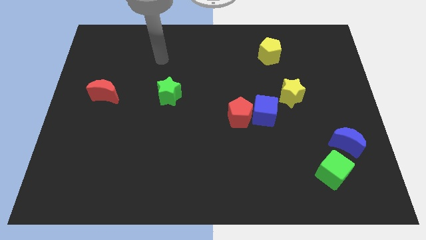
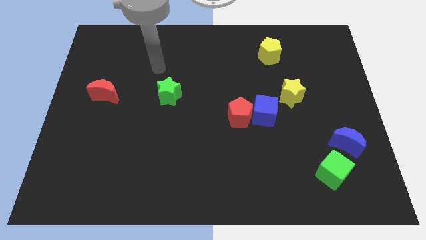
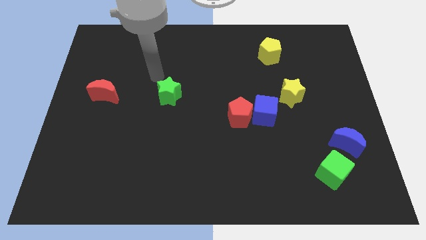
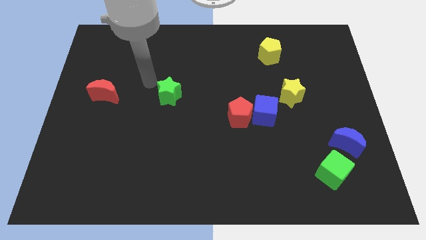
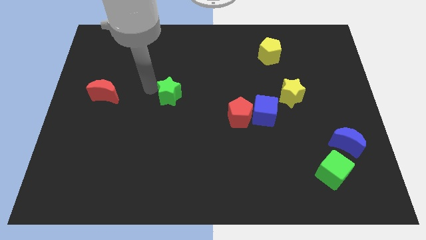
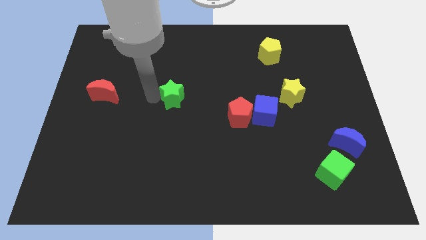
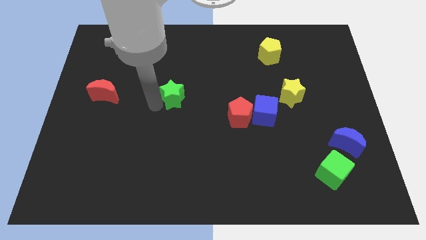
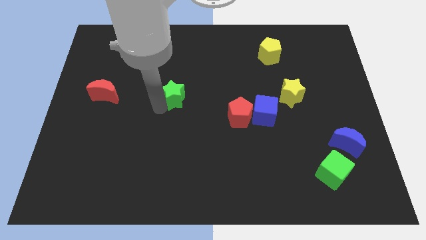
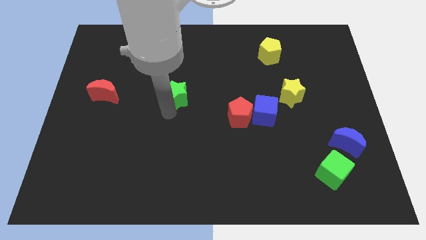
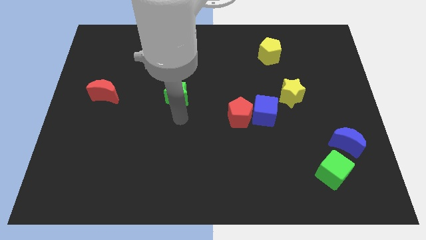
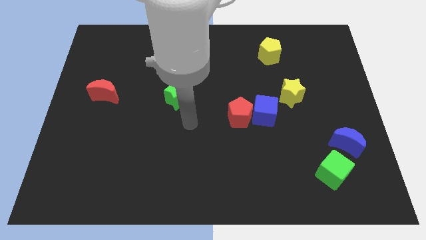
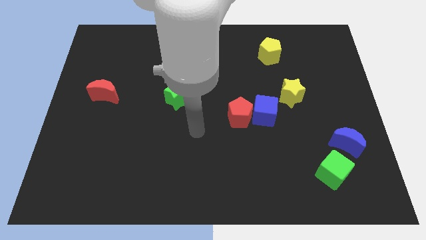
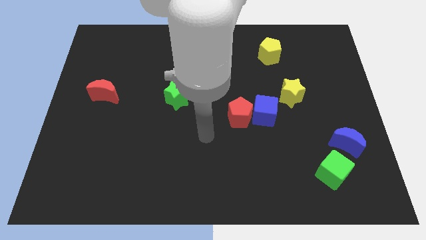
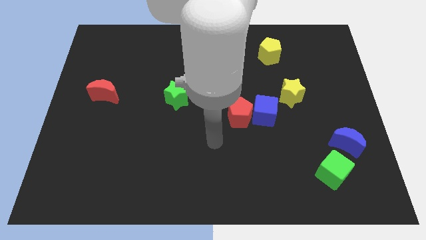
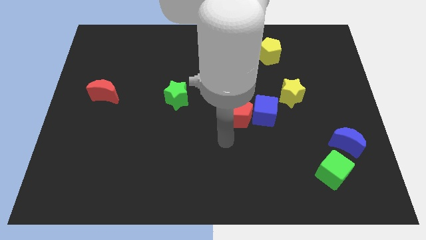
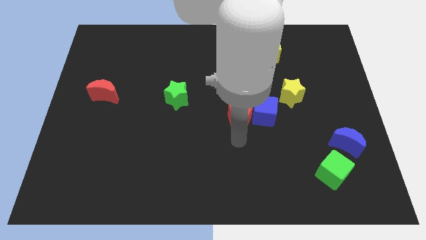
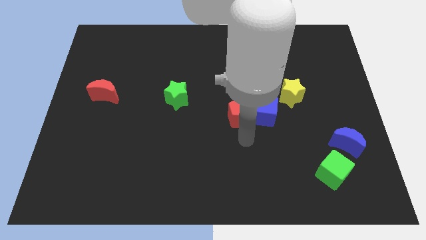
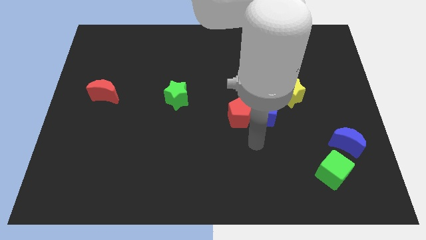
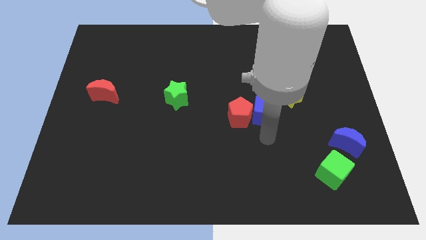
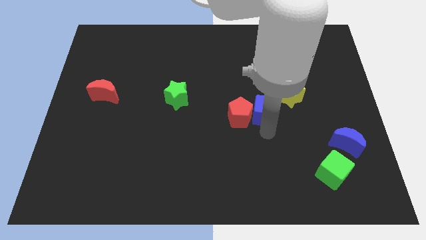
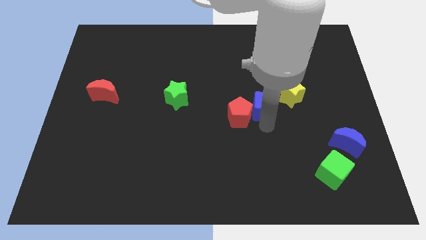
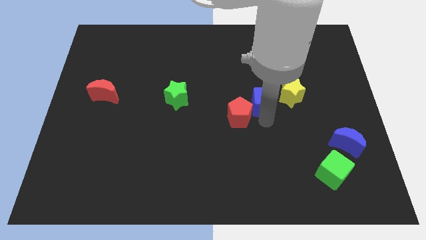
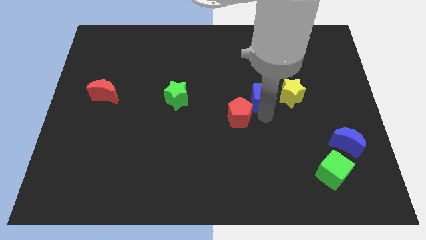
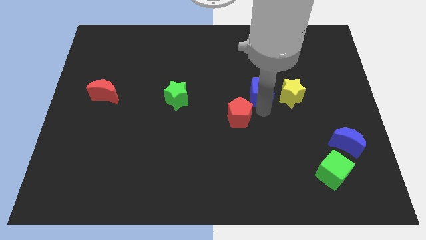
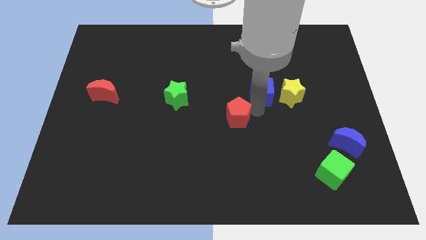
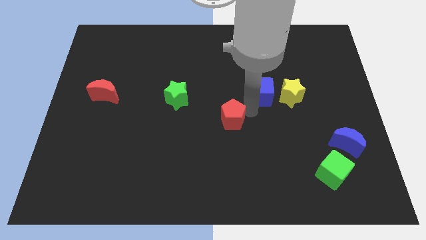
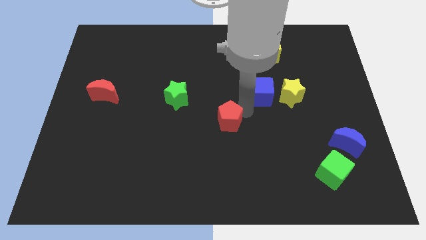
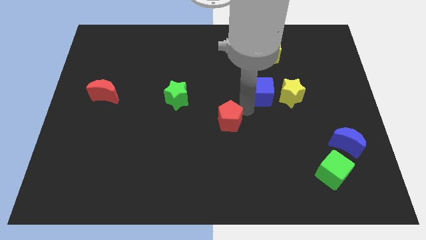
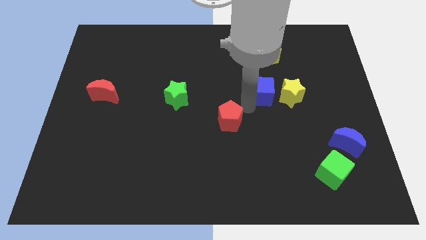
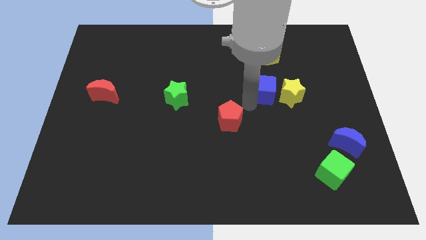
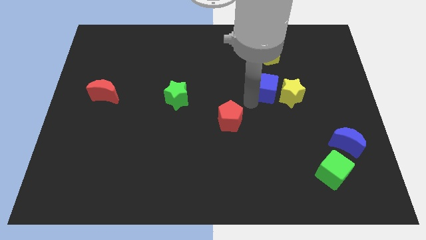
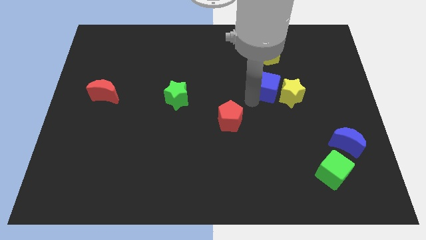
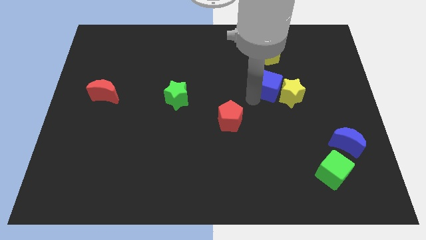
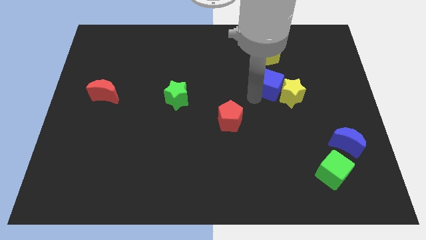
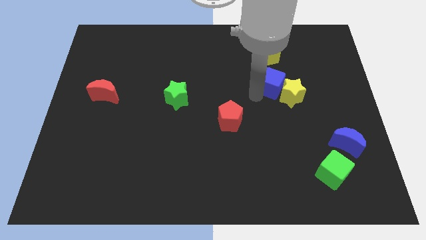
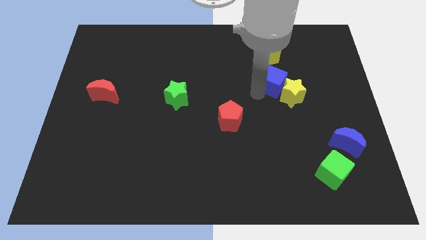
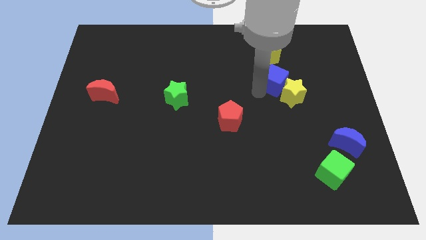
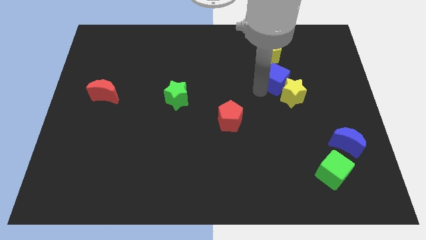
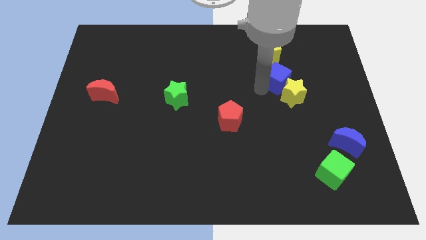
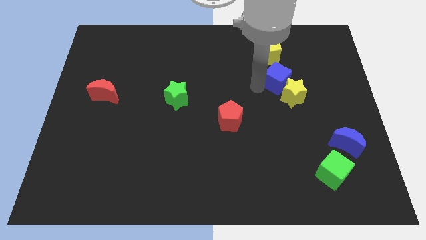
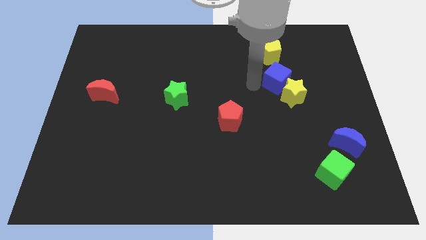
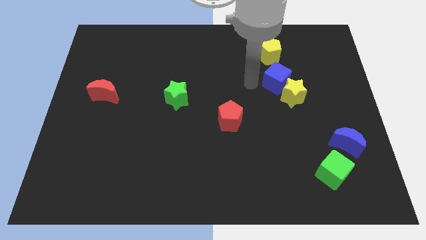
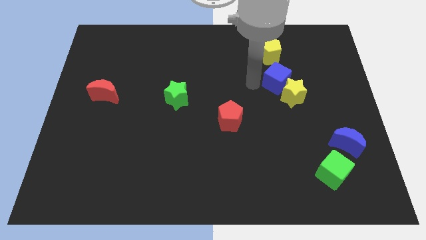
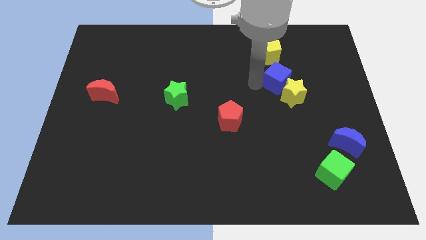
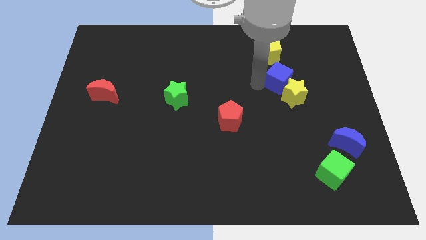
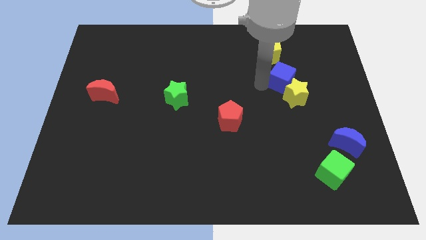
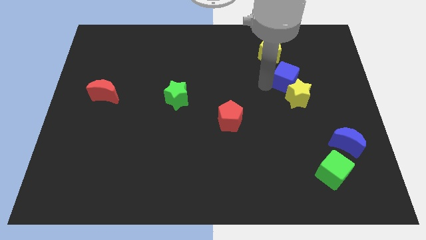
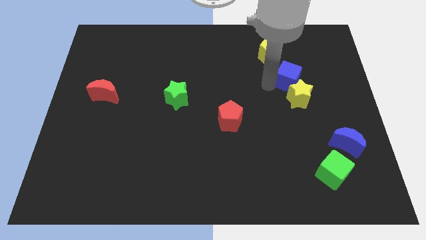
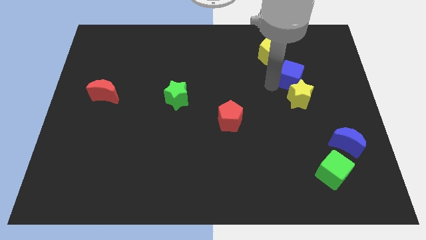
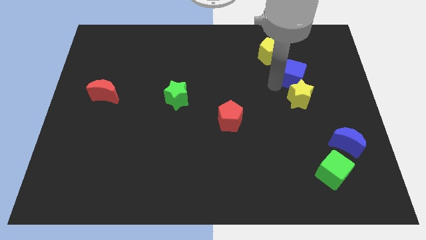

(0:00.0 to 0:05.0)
slide the blue cube to the top right side of the yellow star

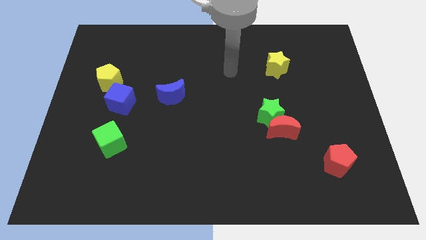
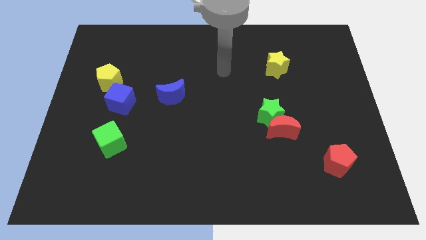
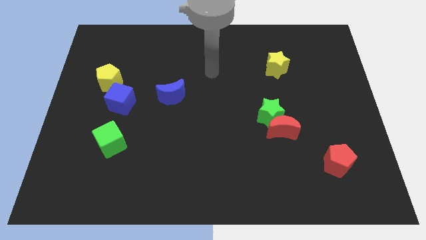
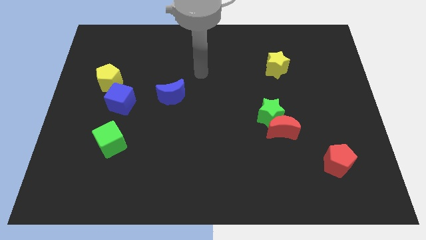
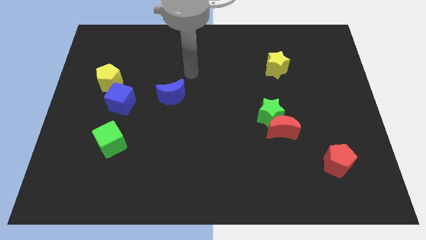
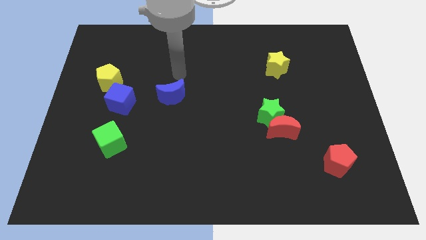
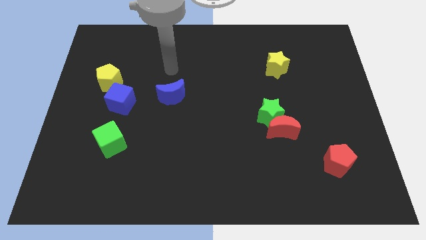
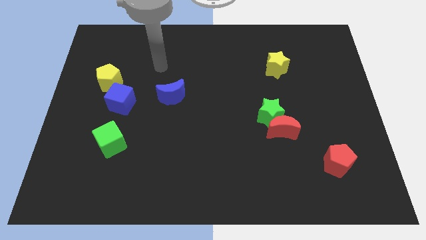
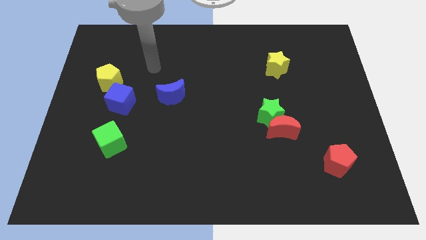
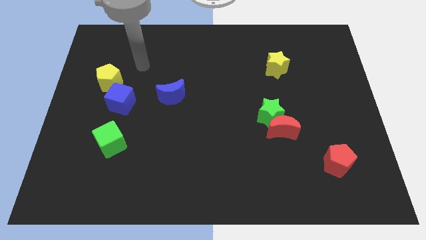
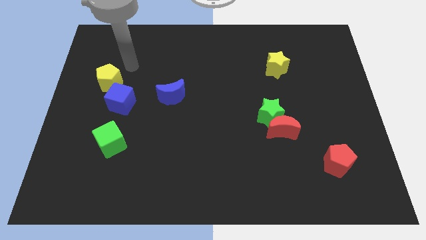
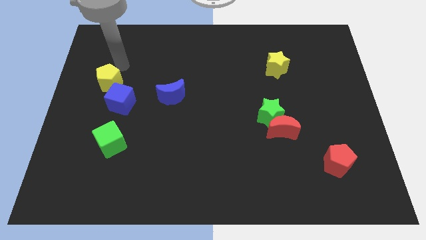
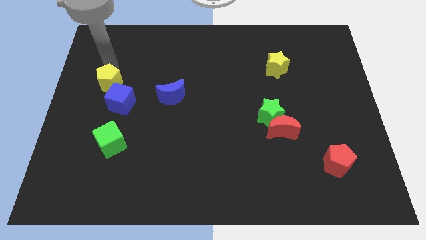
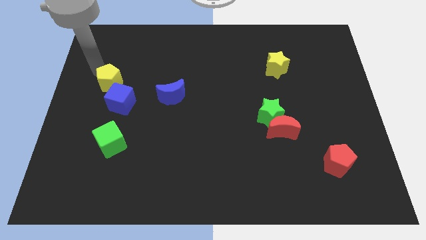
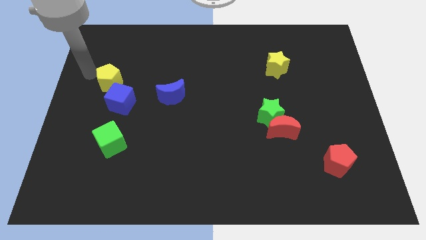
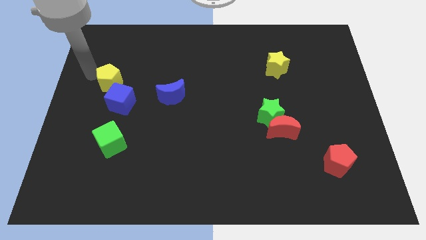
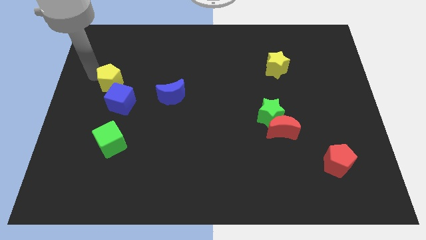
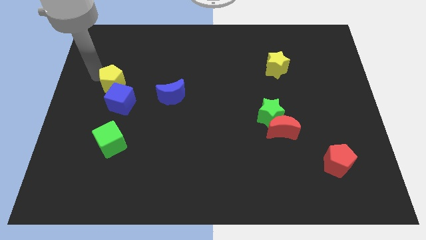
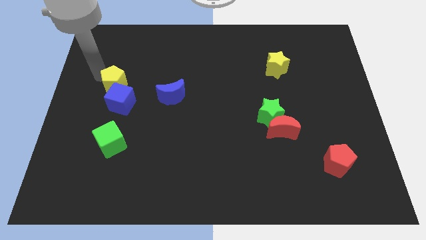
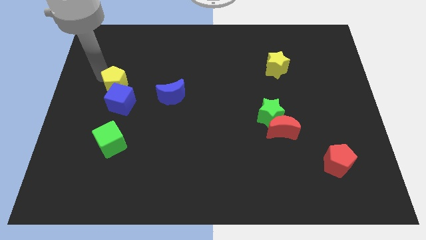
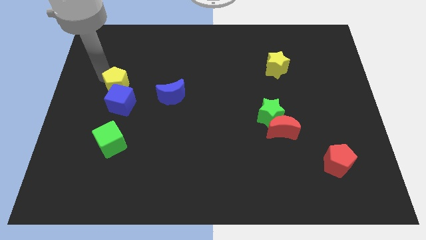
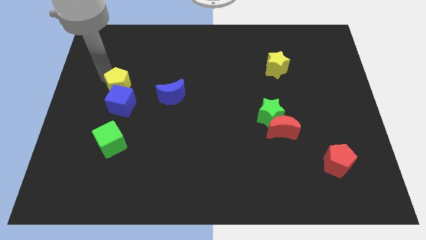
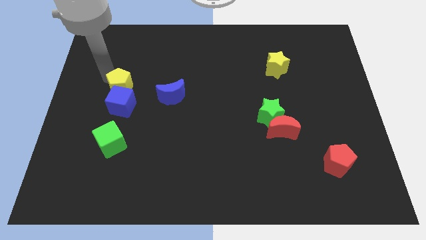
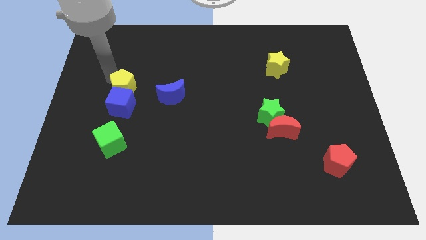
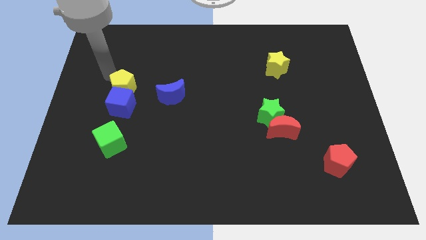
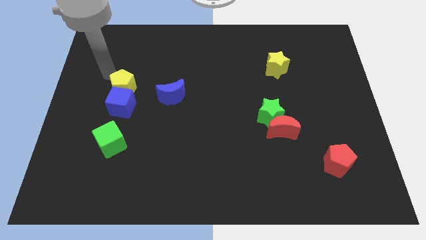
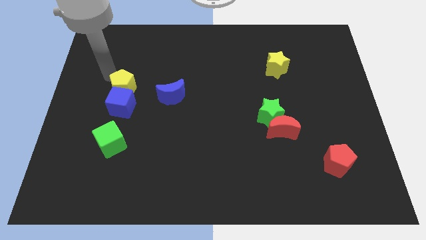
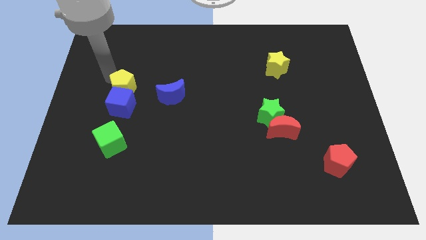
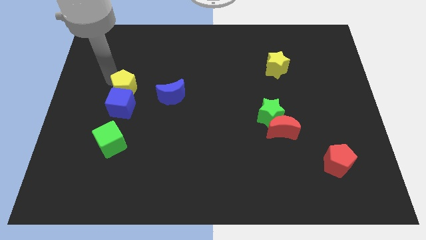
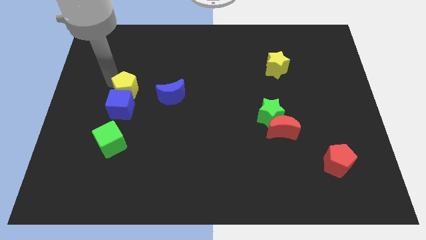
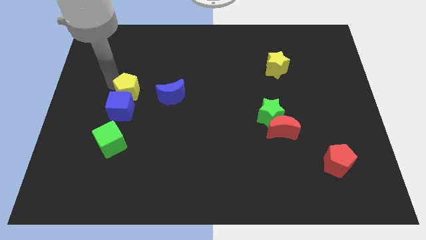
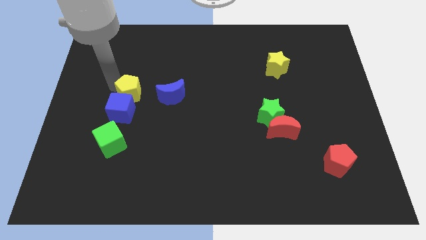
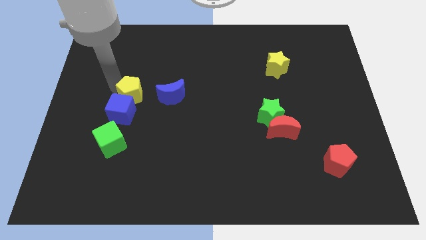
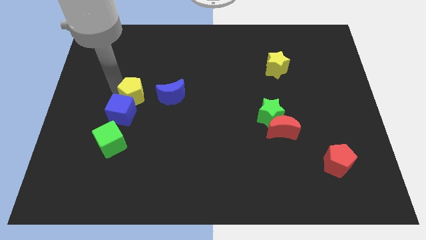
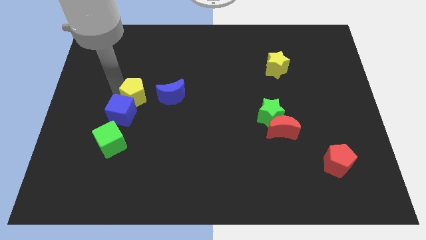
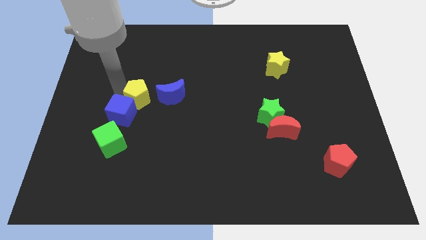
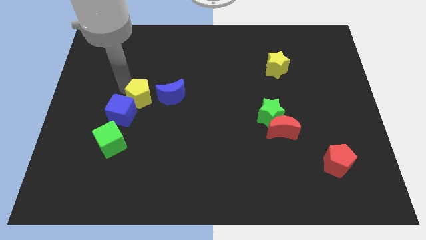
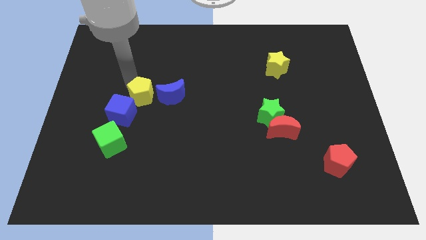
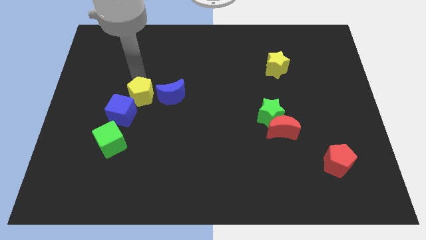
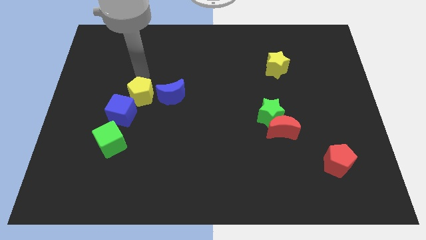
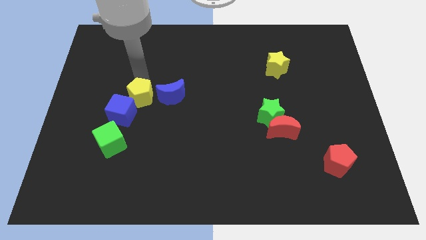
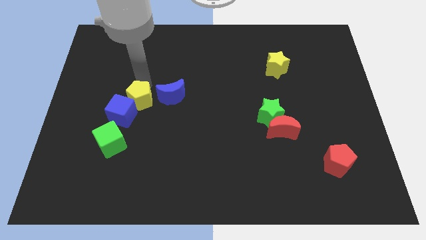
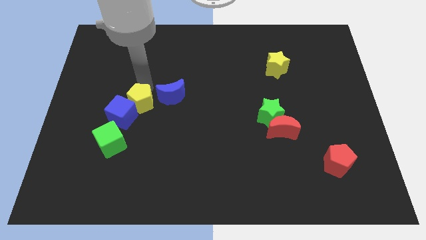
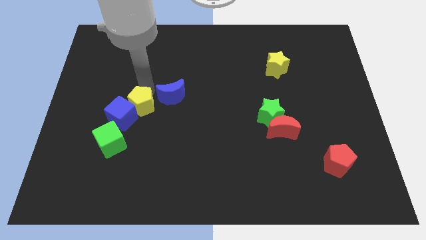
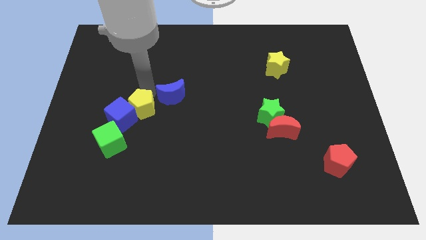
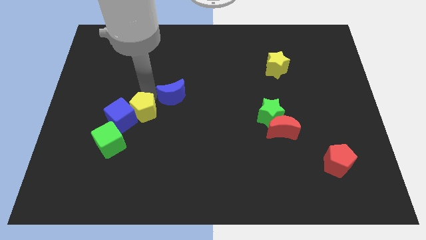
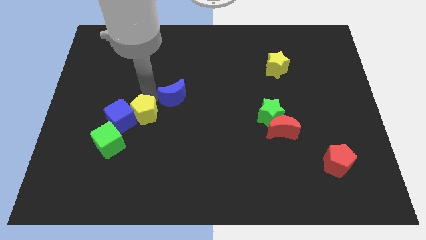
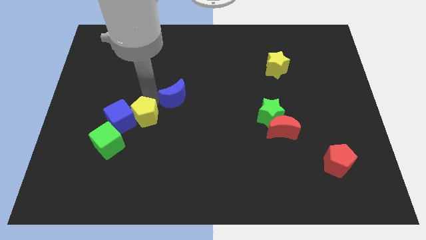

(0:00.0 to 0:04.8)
move the yellow pentagon to the bottom right side of the blue cube
